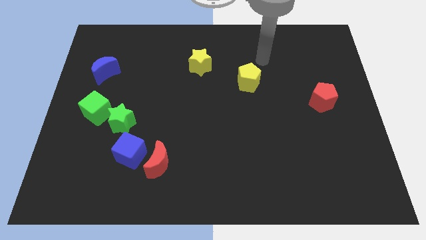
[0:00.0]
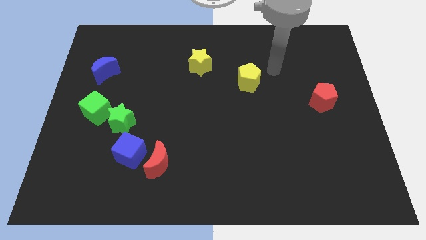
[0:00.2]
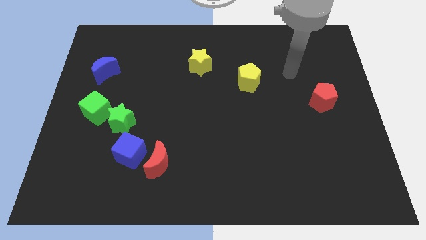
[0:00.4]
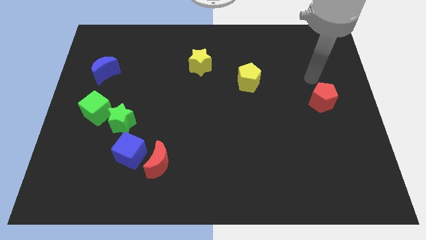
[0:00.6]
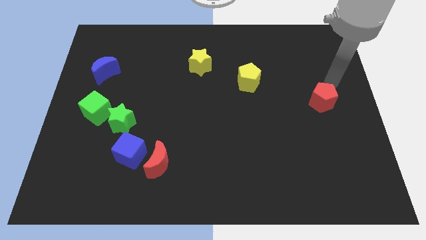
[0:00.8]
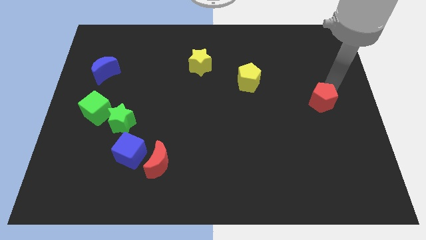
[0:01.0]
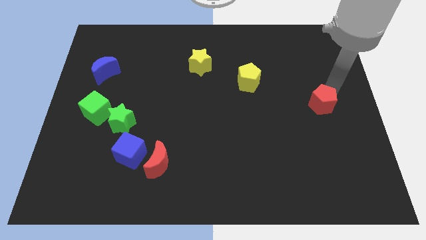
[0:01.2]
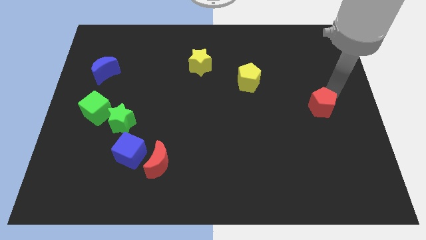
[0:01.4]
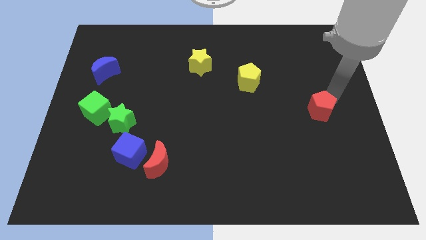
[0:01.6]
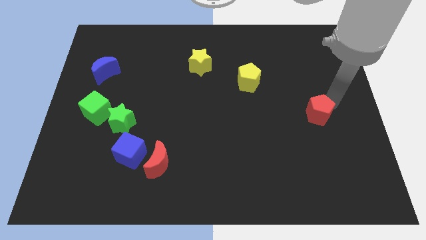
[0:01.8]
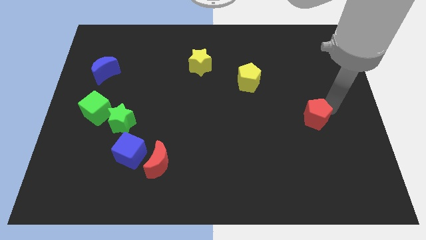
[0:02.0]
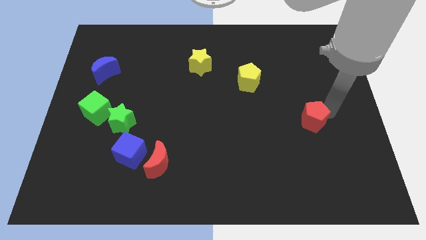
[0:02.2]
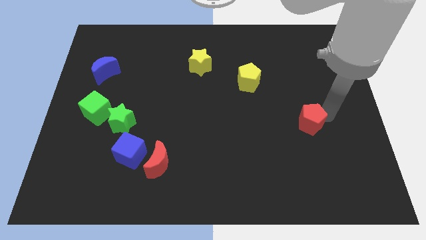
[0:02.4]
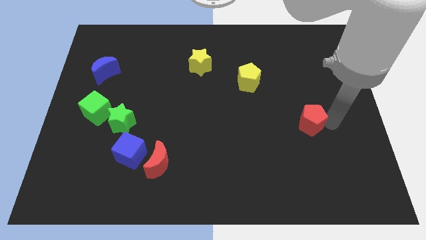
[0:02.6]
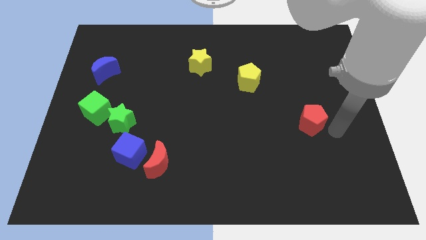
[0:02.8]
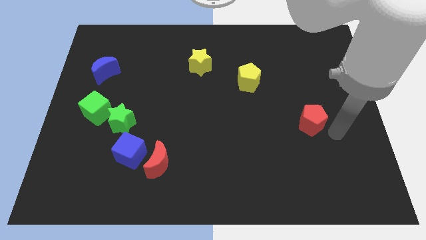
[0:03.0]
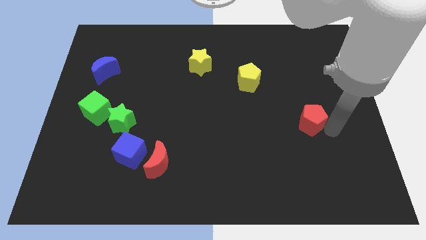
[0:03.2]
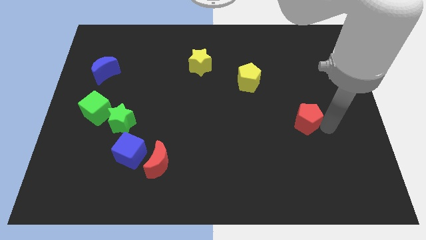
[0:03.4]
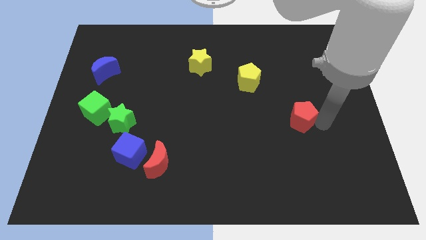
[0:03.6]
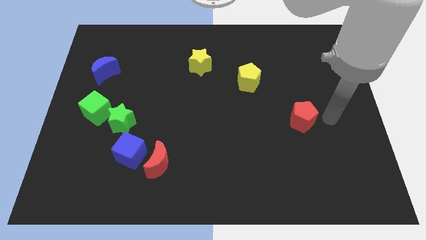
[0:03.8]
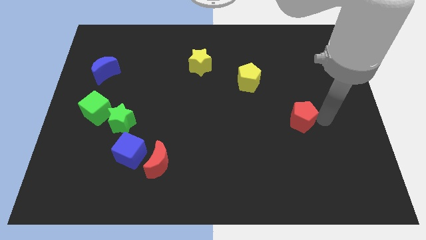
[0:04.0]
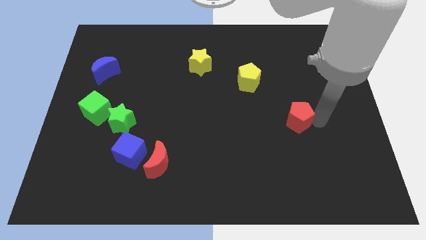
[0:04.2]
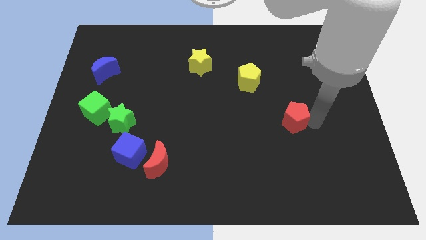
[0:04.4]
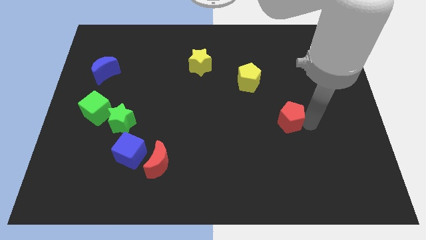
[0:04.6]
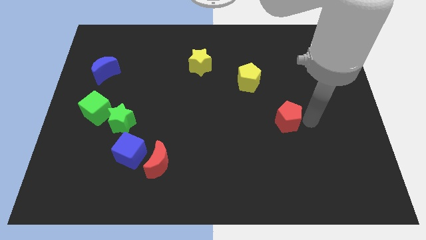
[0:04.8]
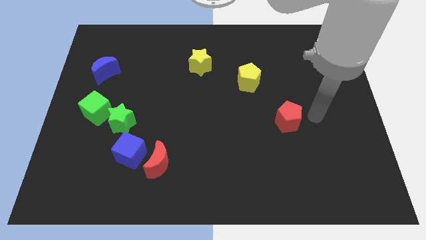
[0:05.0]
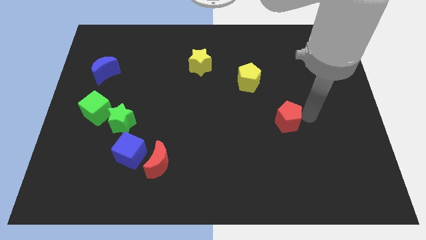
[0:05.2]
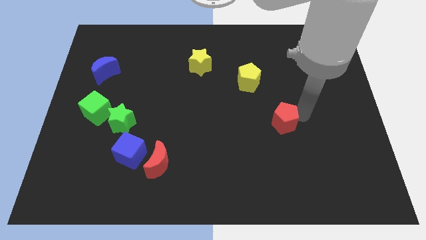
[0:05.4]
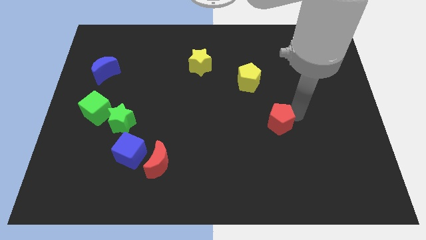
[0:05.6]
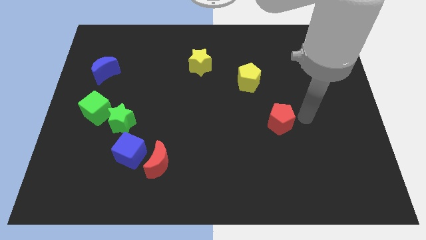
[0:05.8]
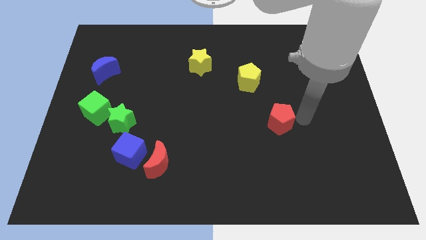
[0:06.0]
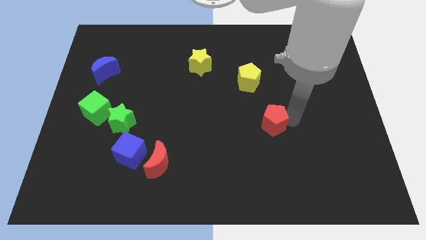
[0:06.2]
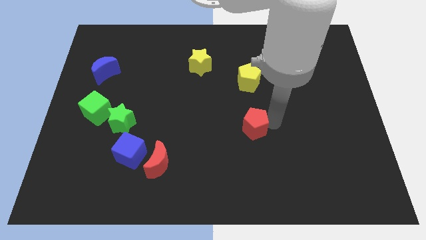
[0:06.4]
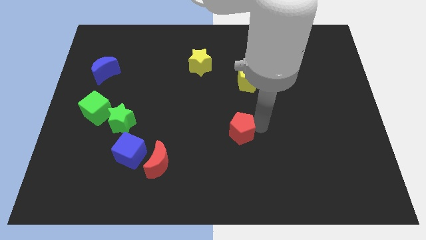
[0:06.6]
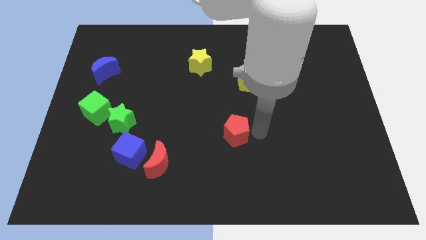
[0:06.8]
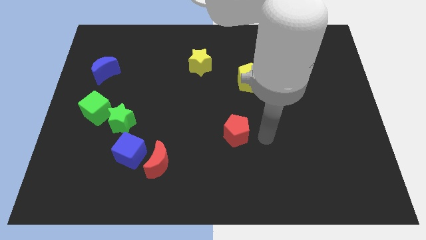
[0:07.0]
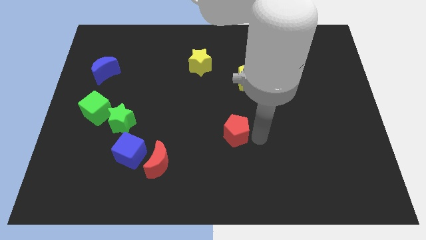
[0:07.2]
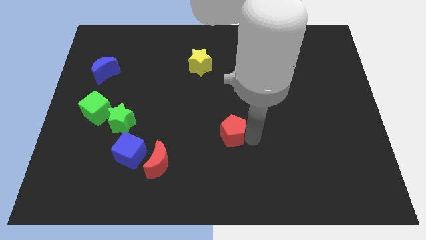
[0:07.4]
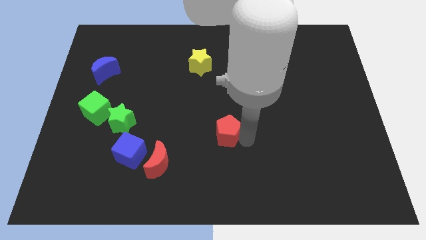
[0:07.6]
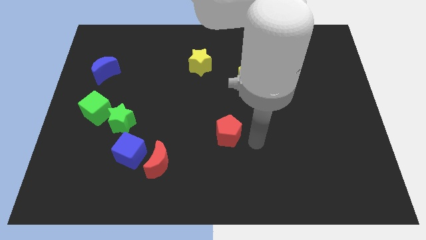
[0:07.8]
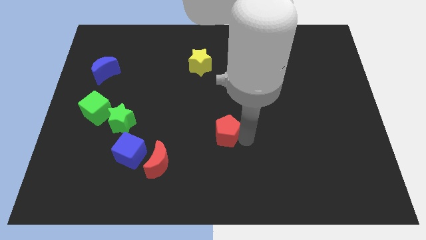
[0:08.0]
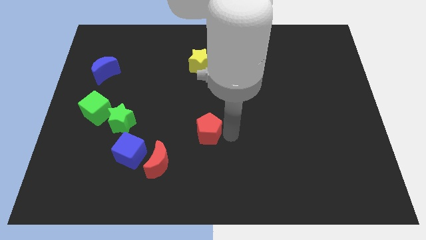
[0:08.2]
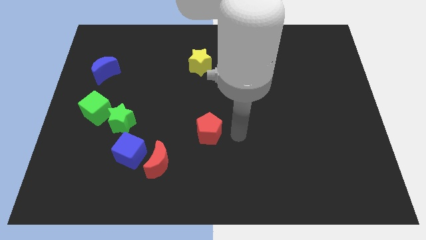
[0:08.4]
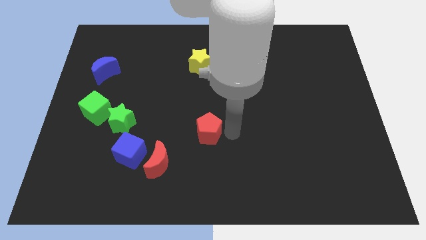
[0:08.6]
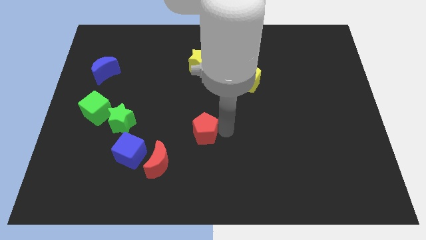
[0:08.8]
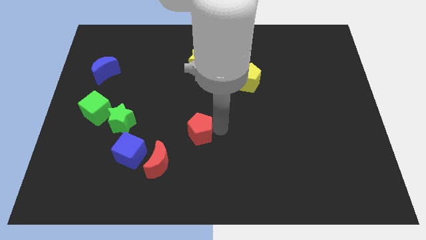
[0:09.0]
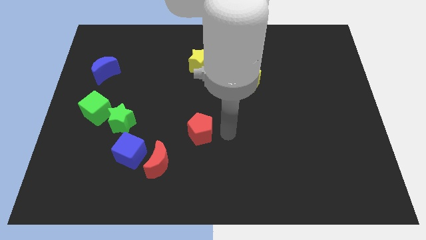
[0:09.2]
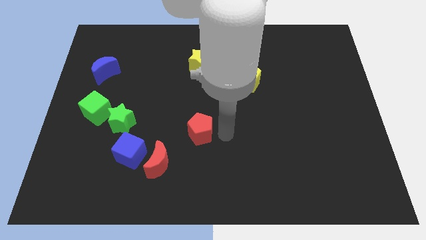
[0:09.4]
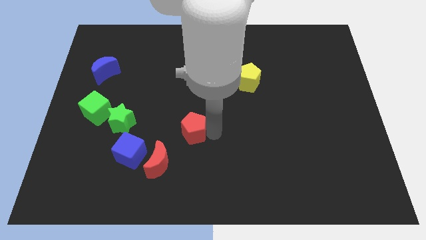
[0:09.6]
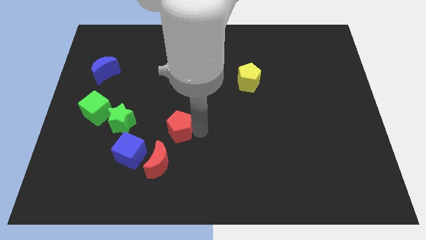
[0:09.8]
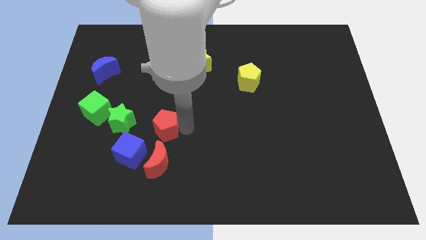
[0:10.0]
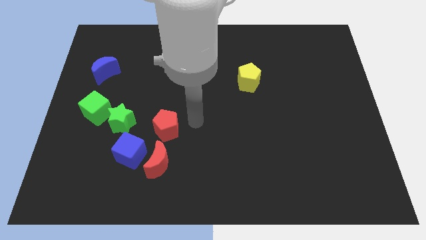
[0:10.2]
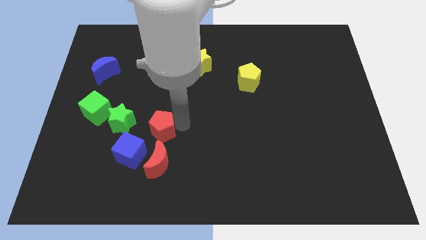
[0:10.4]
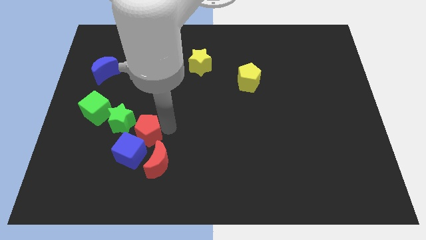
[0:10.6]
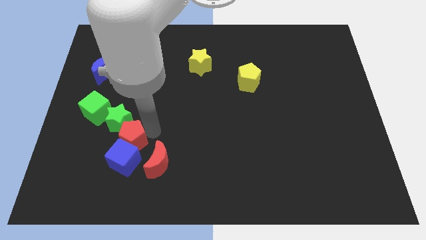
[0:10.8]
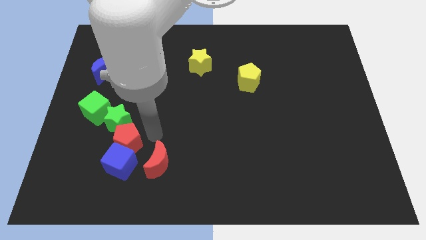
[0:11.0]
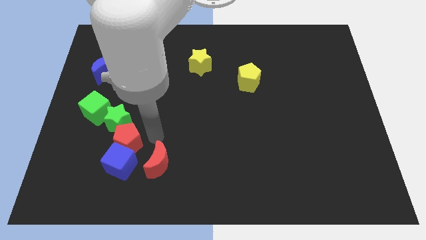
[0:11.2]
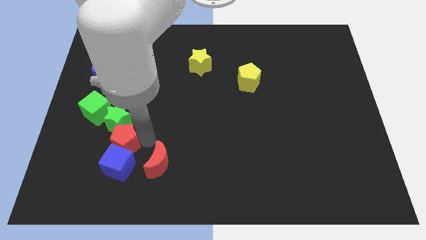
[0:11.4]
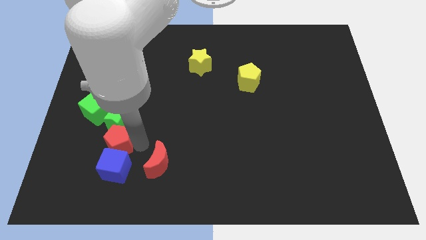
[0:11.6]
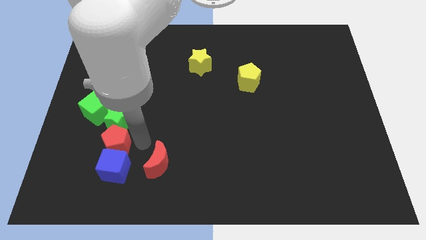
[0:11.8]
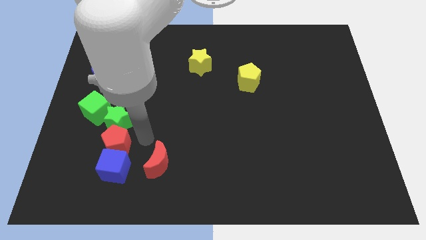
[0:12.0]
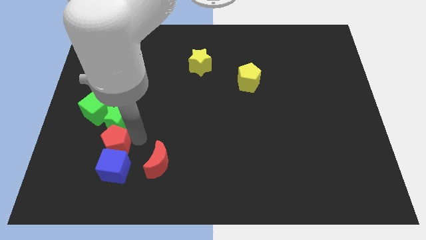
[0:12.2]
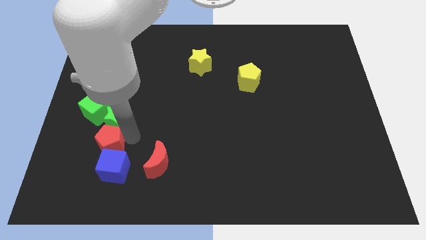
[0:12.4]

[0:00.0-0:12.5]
push the red pentagon to the bottom side of the green cube
